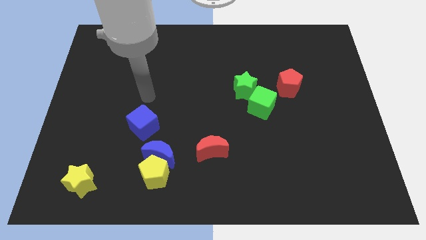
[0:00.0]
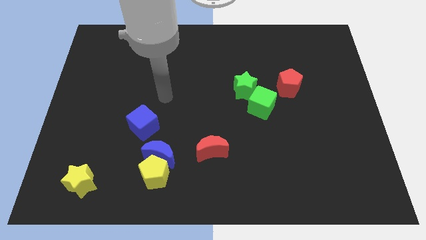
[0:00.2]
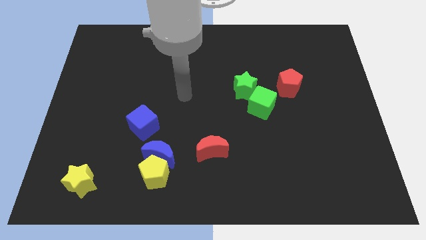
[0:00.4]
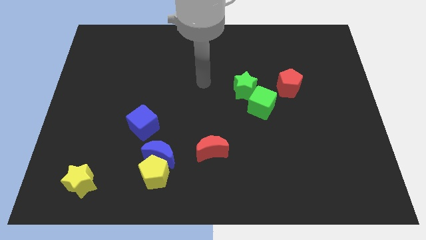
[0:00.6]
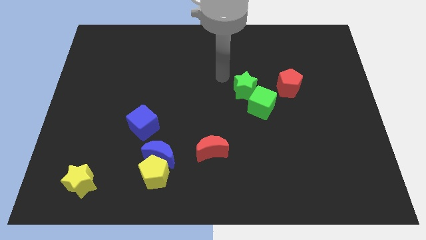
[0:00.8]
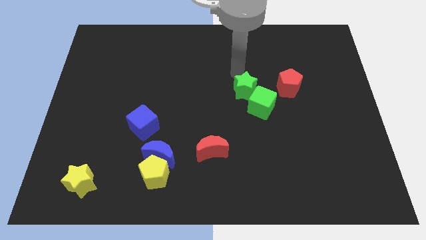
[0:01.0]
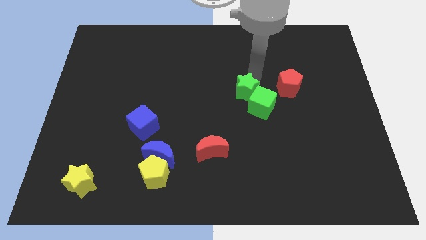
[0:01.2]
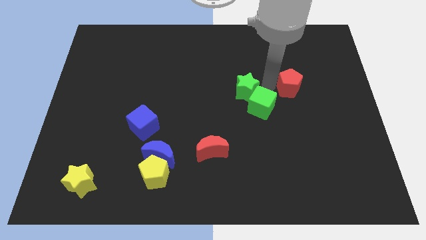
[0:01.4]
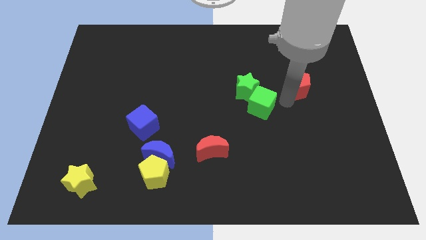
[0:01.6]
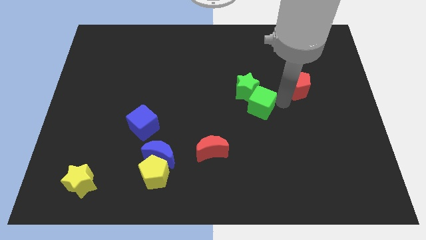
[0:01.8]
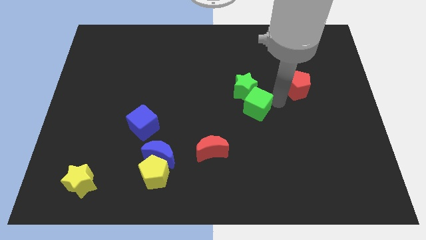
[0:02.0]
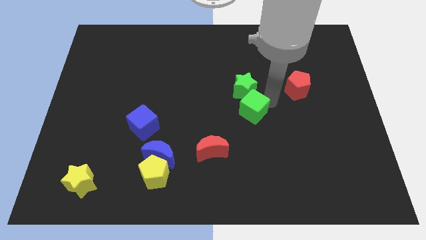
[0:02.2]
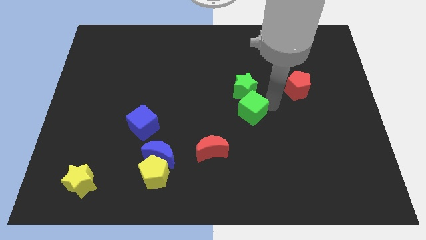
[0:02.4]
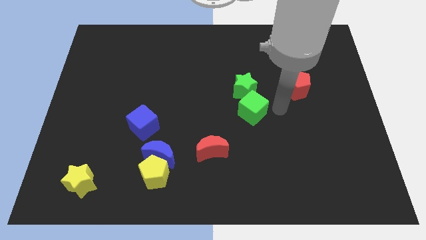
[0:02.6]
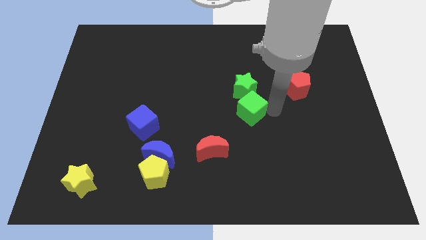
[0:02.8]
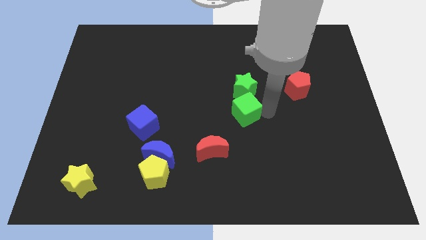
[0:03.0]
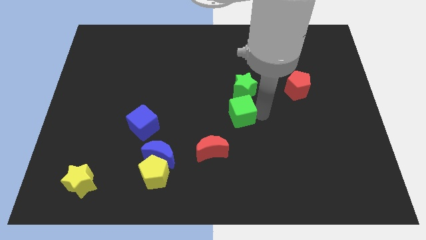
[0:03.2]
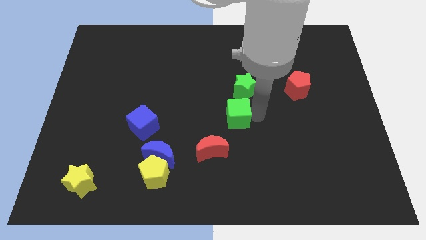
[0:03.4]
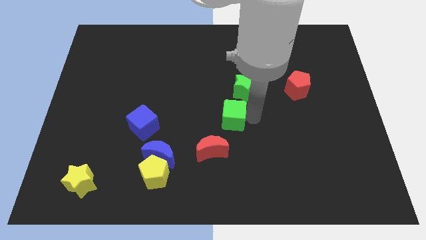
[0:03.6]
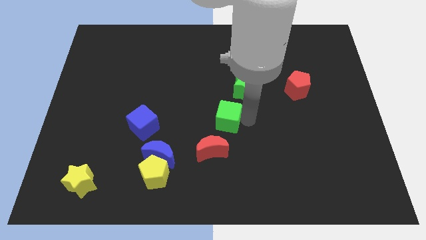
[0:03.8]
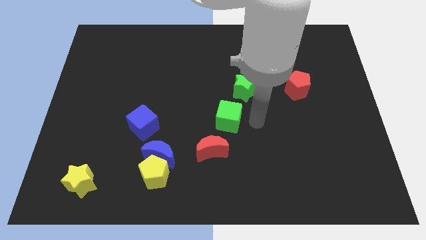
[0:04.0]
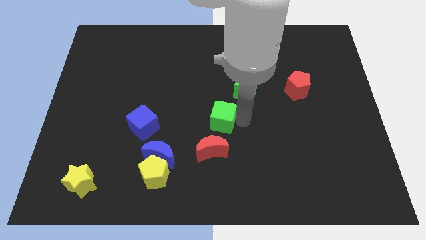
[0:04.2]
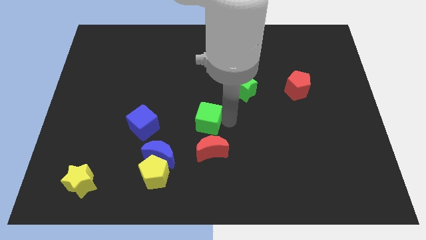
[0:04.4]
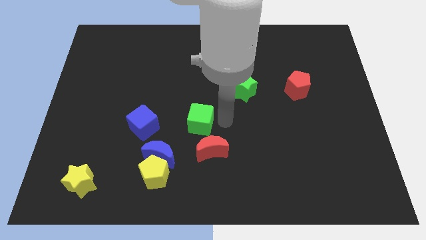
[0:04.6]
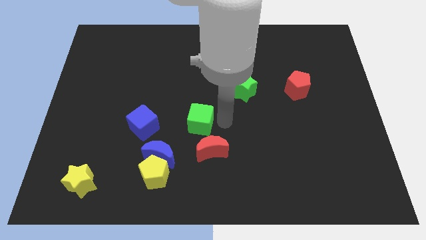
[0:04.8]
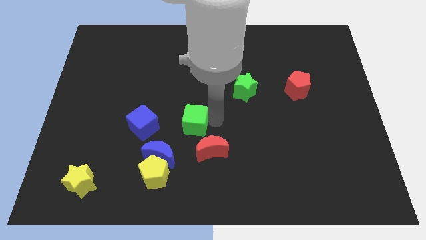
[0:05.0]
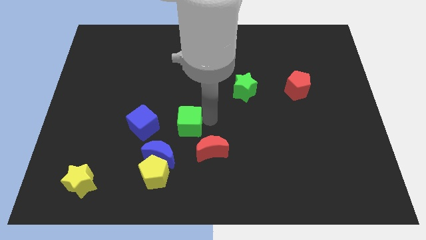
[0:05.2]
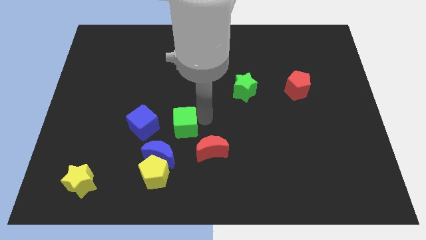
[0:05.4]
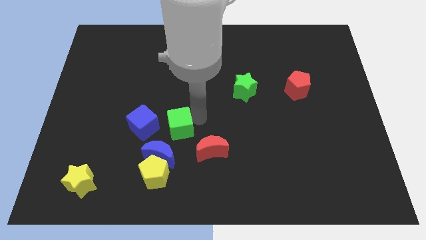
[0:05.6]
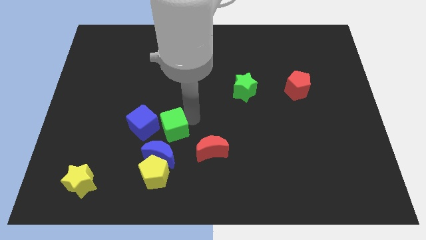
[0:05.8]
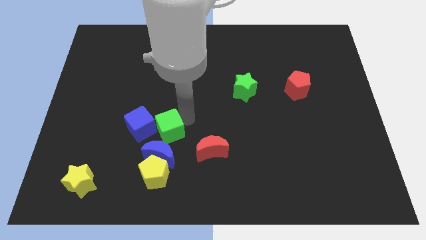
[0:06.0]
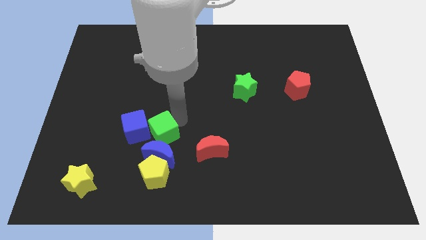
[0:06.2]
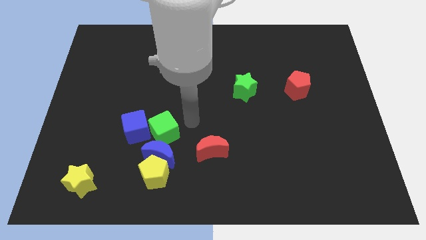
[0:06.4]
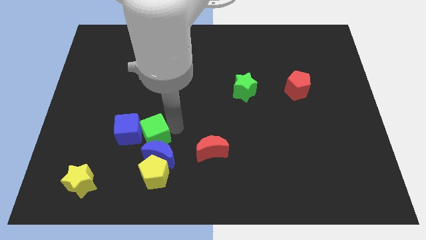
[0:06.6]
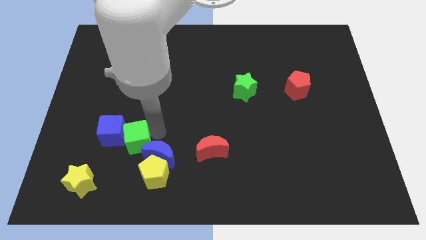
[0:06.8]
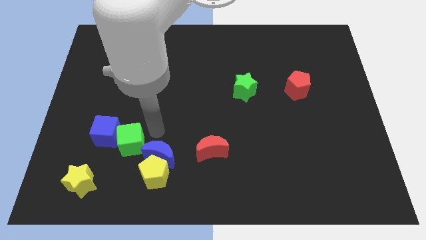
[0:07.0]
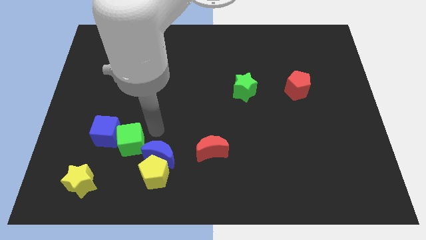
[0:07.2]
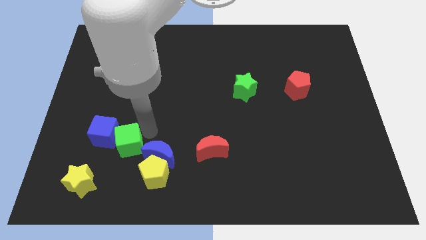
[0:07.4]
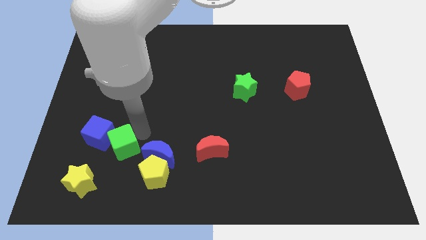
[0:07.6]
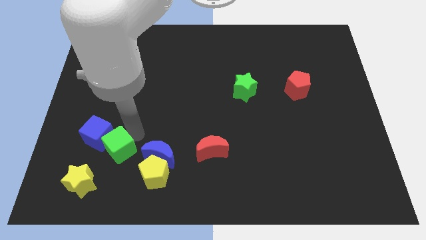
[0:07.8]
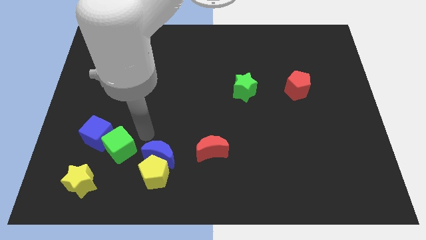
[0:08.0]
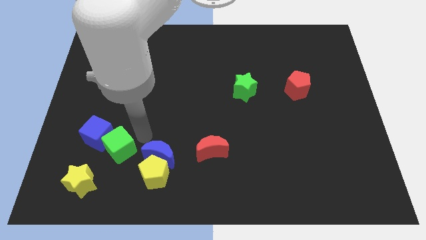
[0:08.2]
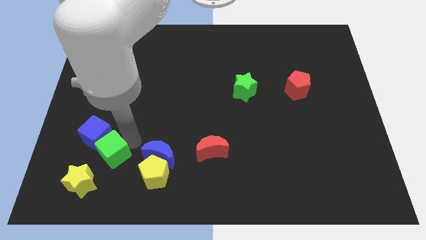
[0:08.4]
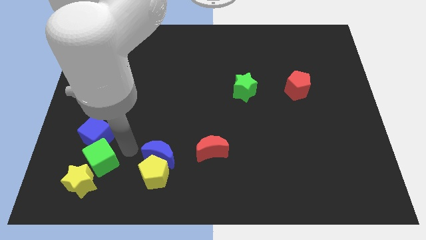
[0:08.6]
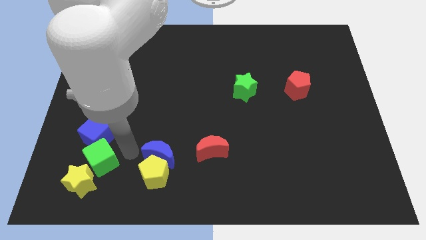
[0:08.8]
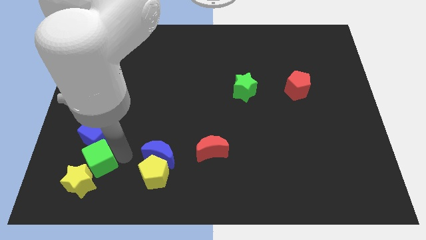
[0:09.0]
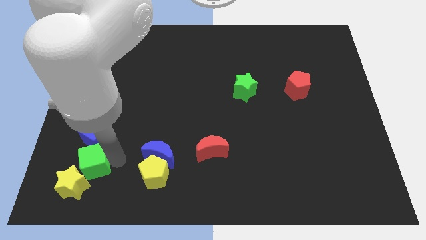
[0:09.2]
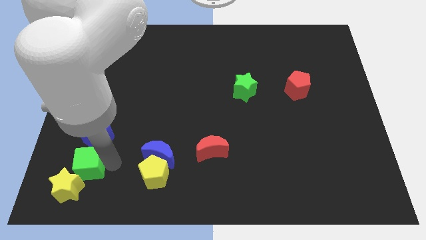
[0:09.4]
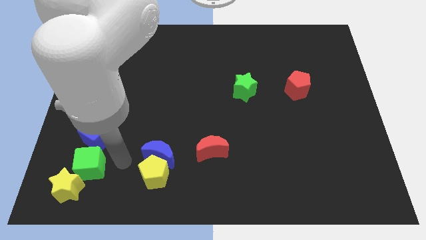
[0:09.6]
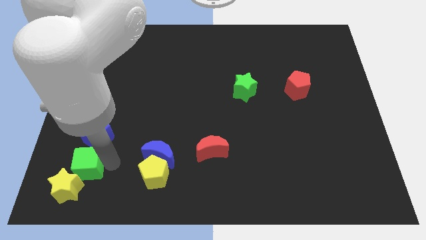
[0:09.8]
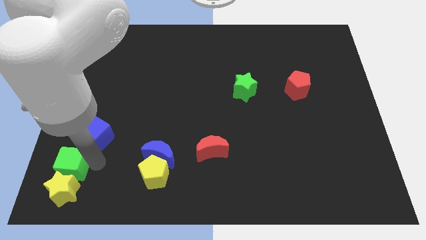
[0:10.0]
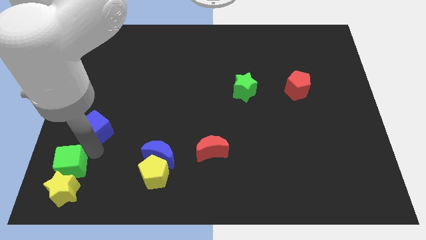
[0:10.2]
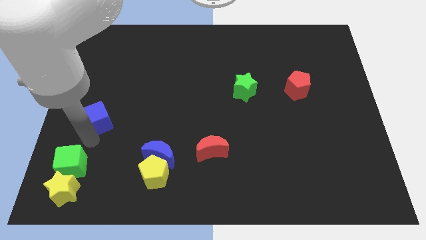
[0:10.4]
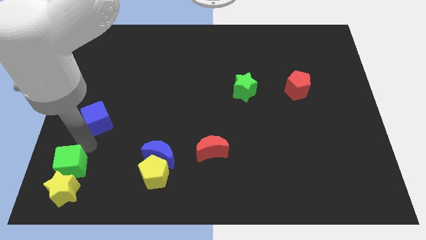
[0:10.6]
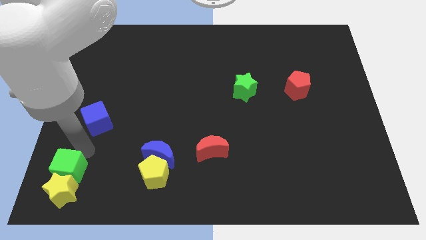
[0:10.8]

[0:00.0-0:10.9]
slide the green cube to the lower left corner

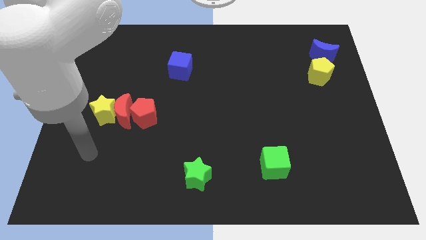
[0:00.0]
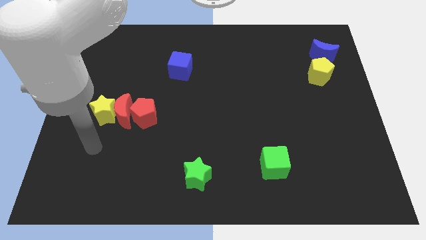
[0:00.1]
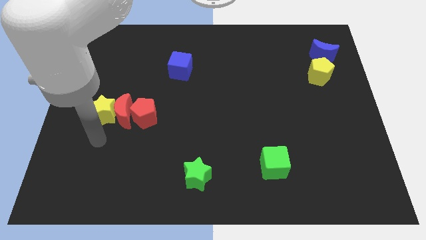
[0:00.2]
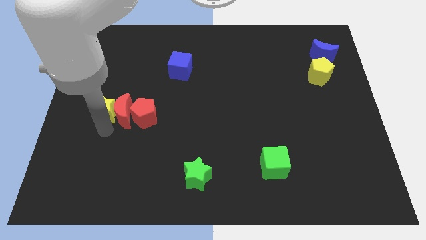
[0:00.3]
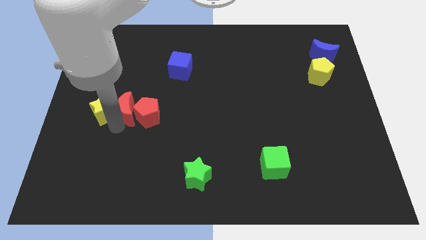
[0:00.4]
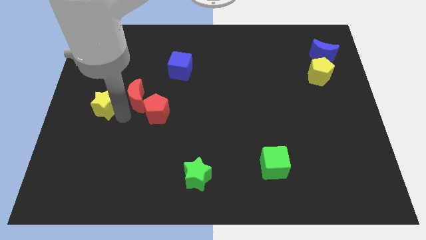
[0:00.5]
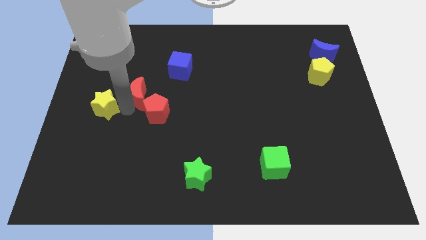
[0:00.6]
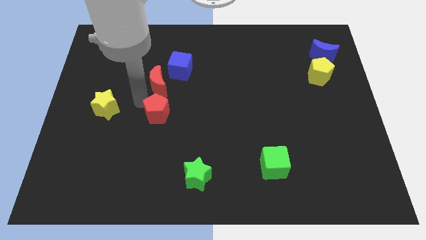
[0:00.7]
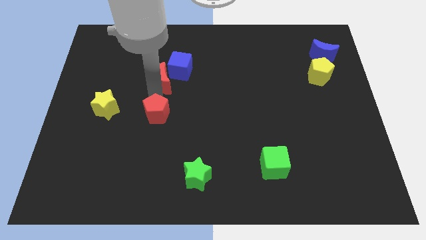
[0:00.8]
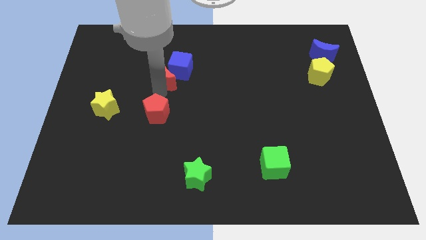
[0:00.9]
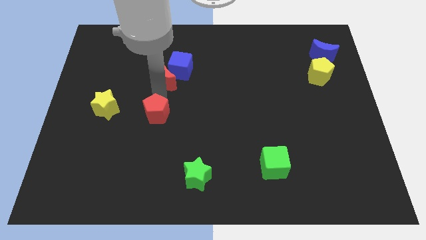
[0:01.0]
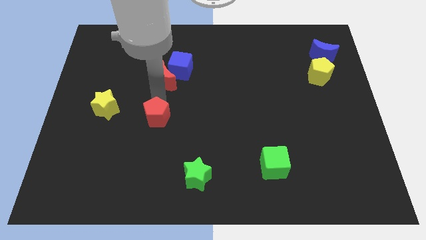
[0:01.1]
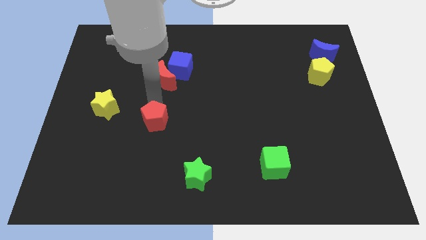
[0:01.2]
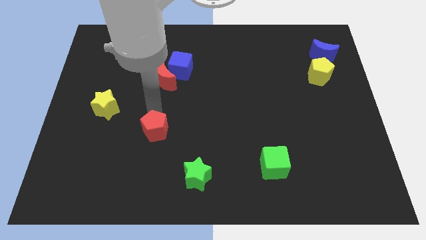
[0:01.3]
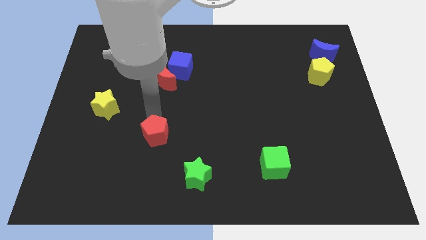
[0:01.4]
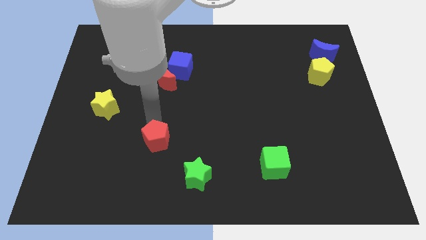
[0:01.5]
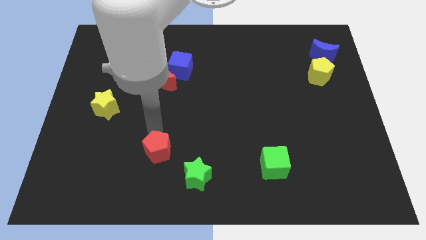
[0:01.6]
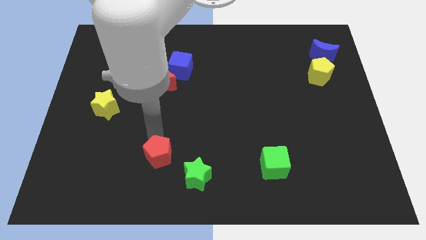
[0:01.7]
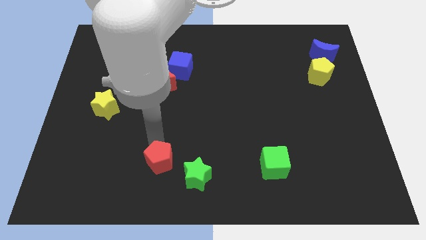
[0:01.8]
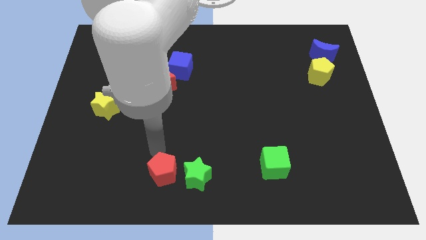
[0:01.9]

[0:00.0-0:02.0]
push the red pentagon to the bottom
